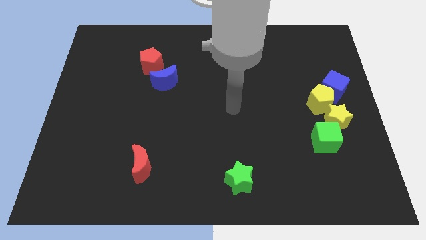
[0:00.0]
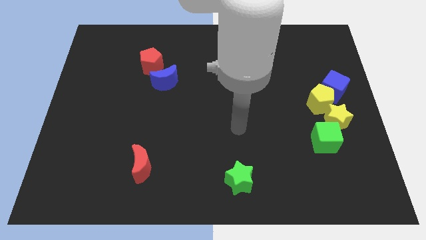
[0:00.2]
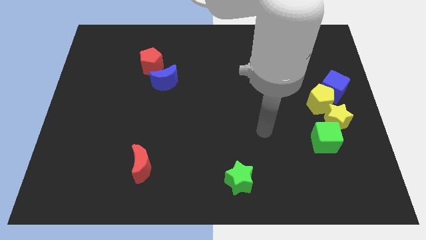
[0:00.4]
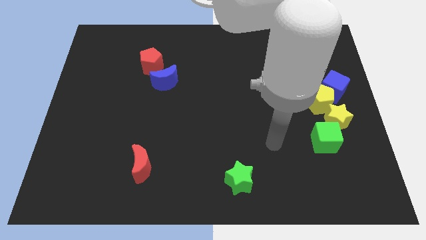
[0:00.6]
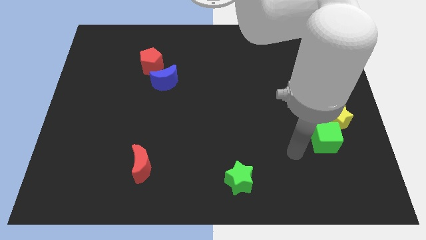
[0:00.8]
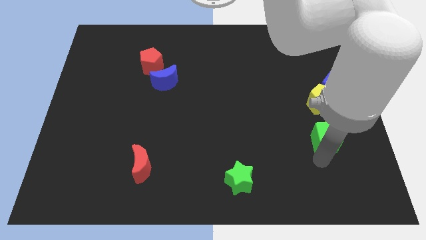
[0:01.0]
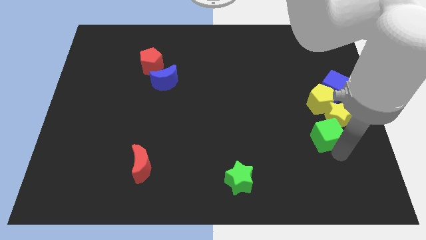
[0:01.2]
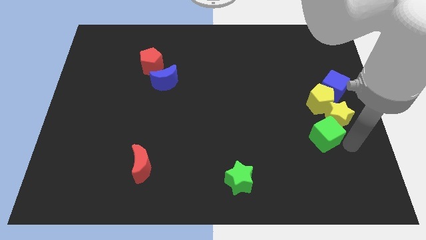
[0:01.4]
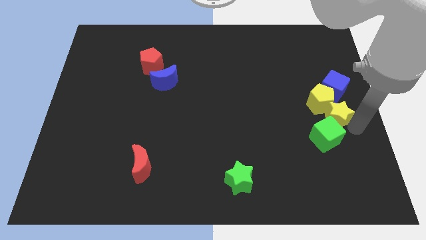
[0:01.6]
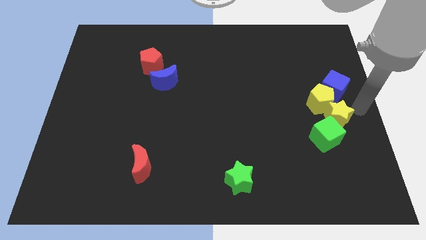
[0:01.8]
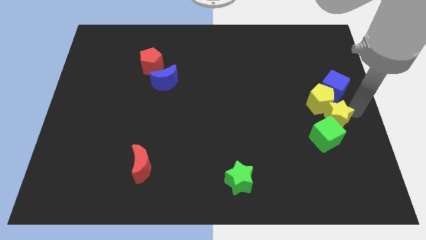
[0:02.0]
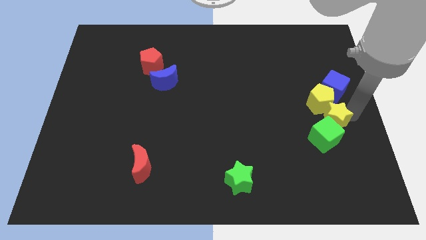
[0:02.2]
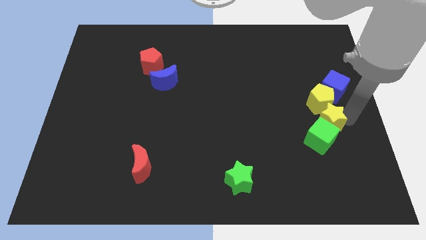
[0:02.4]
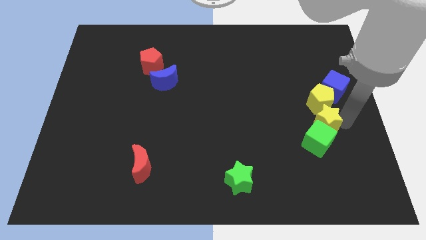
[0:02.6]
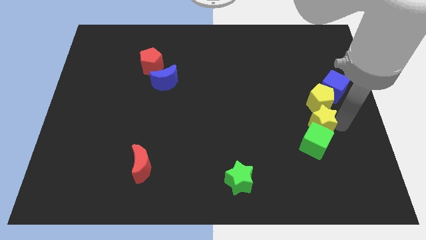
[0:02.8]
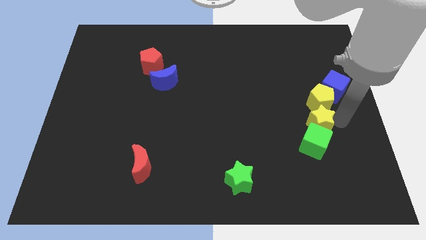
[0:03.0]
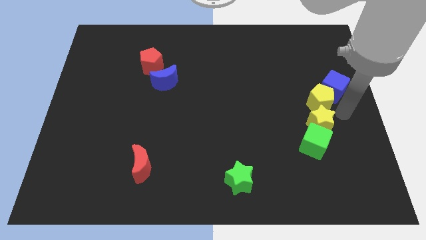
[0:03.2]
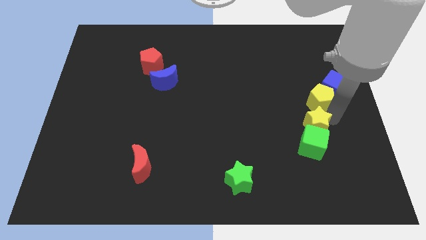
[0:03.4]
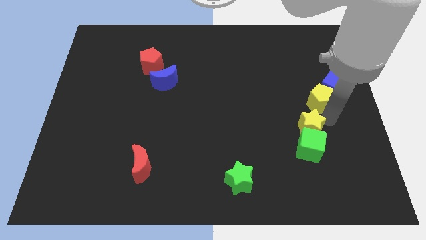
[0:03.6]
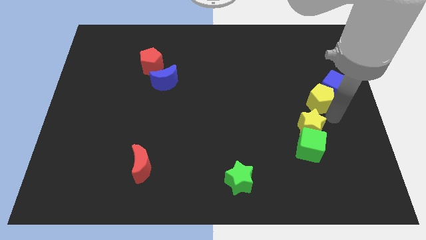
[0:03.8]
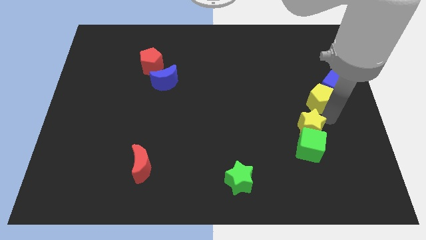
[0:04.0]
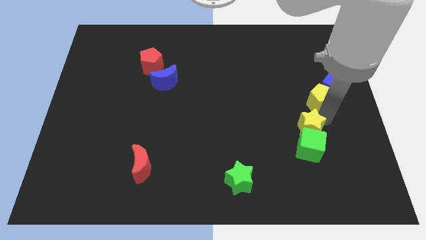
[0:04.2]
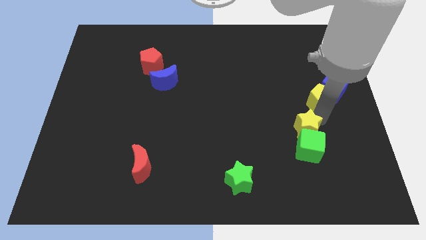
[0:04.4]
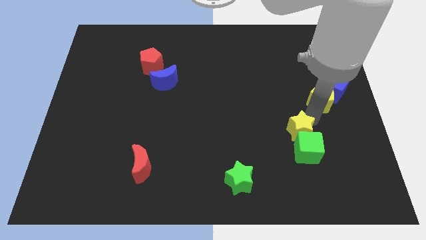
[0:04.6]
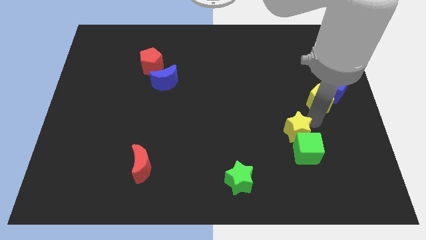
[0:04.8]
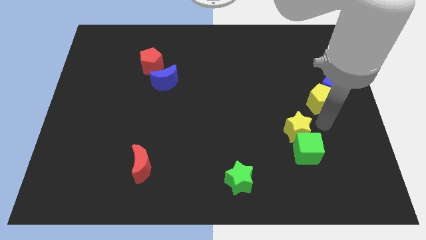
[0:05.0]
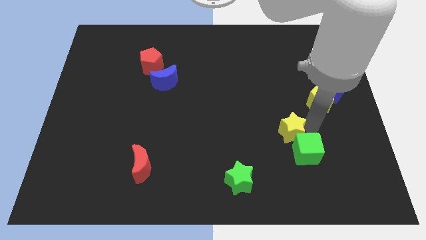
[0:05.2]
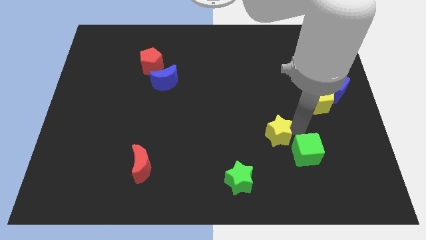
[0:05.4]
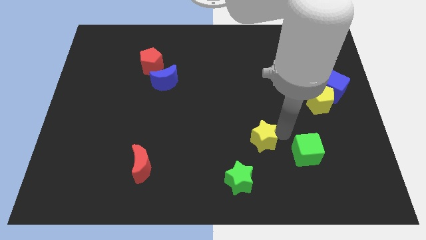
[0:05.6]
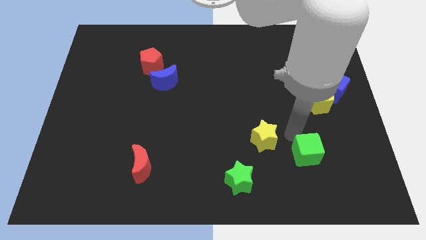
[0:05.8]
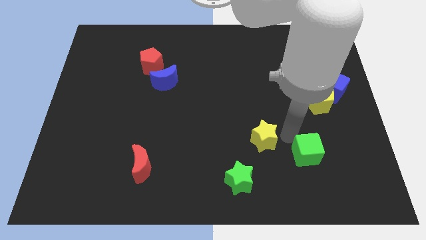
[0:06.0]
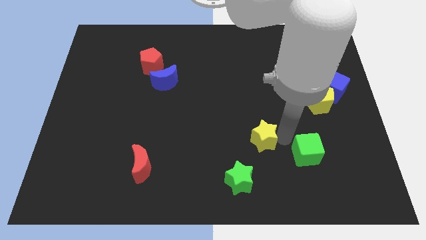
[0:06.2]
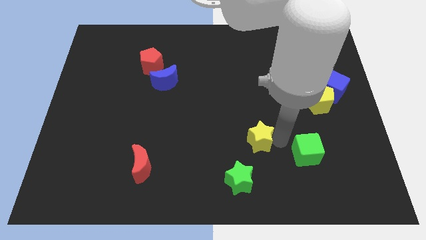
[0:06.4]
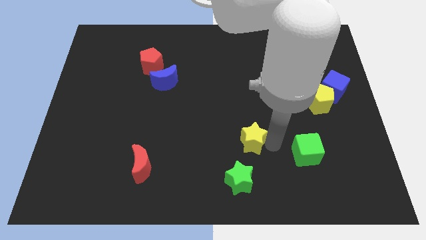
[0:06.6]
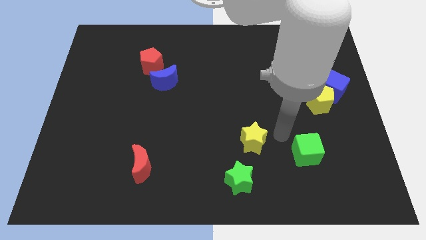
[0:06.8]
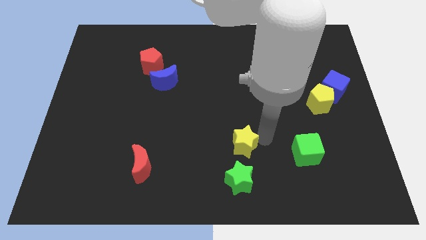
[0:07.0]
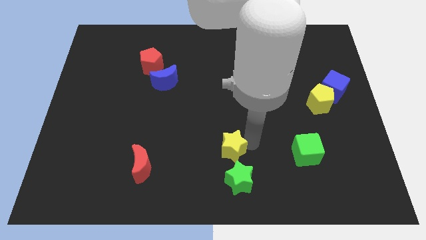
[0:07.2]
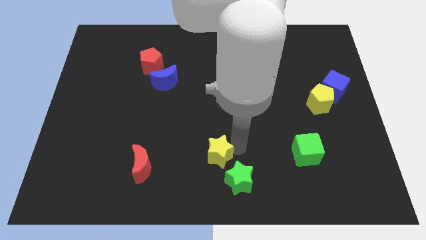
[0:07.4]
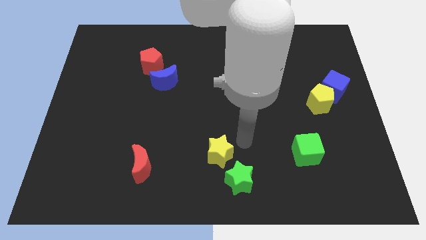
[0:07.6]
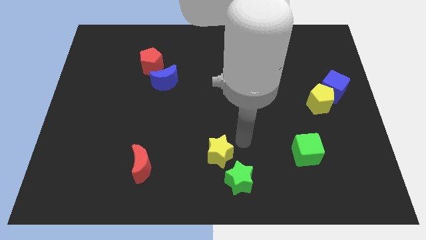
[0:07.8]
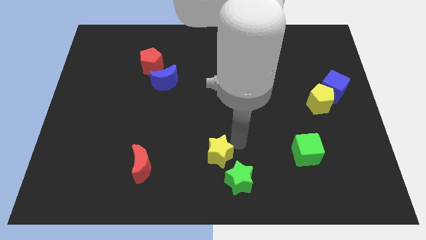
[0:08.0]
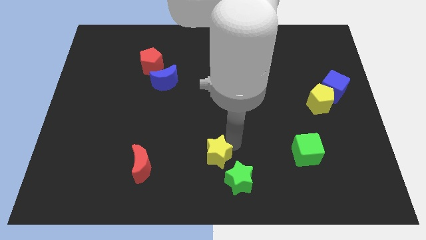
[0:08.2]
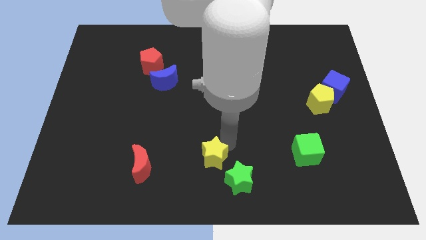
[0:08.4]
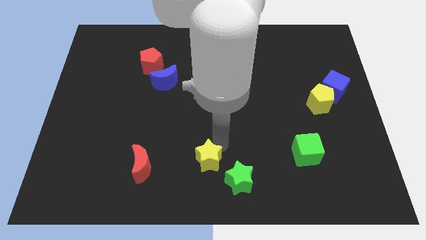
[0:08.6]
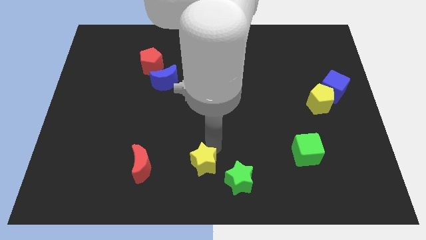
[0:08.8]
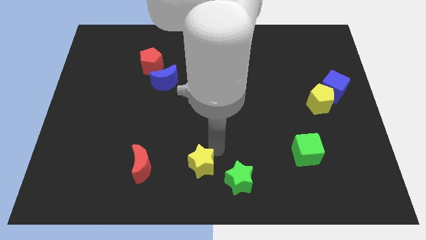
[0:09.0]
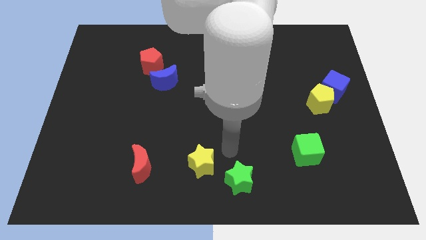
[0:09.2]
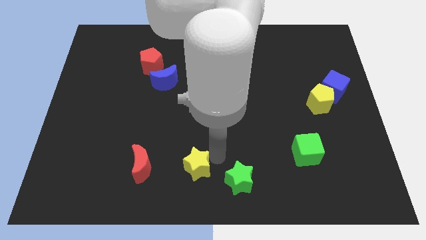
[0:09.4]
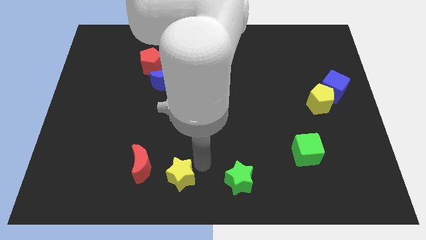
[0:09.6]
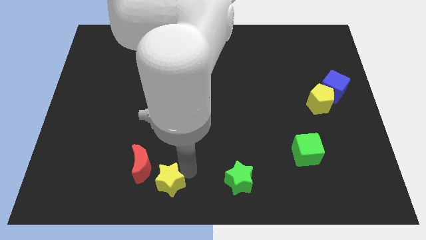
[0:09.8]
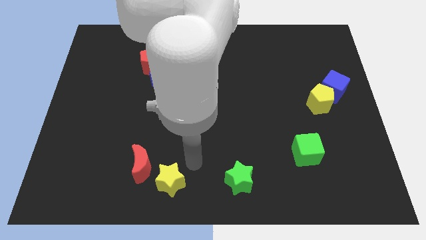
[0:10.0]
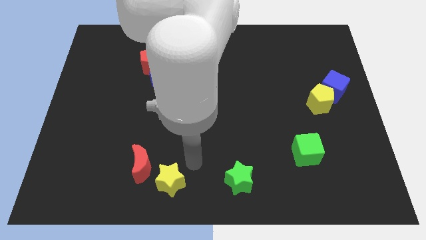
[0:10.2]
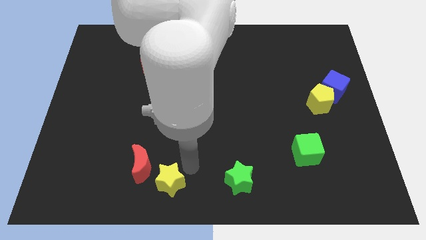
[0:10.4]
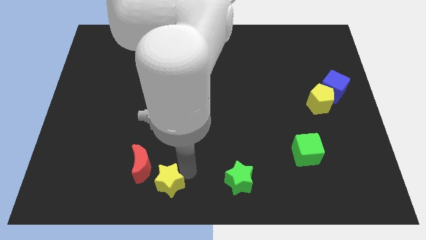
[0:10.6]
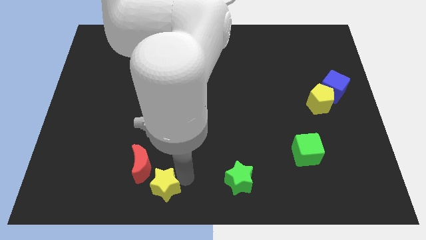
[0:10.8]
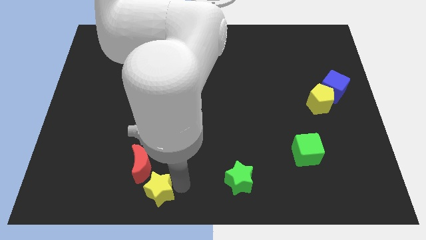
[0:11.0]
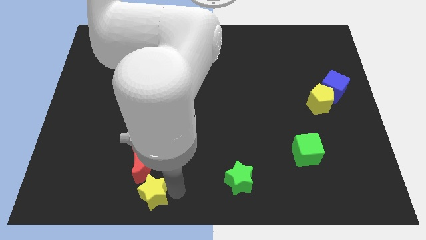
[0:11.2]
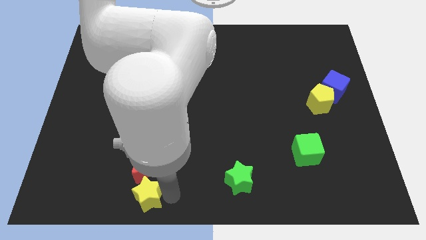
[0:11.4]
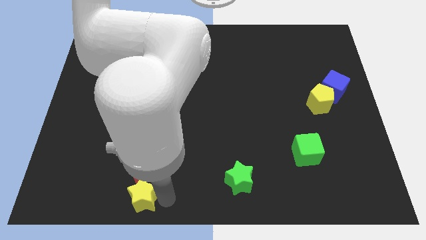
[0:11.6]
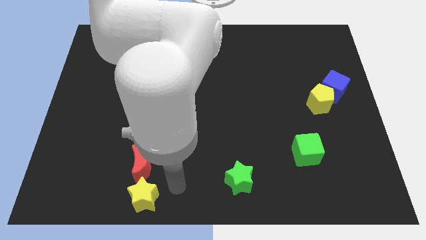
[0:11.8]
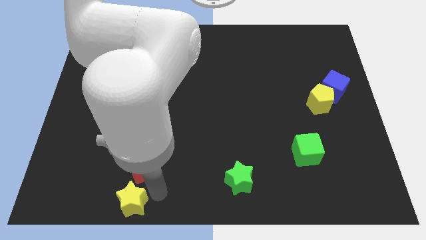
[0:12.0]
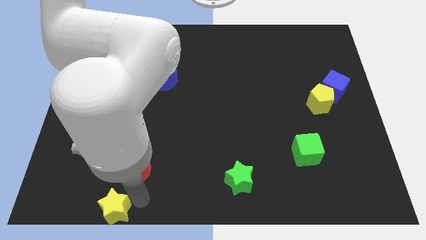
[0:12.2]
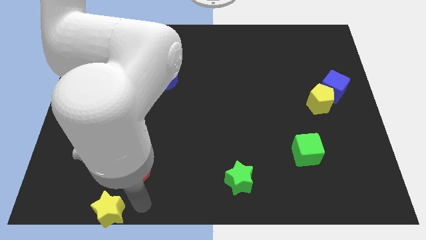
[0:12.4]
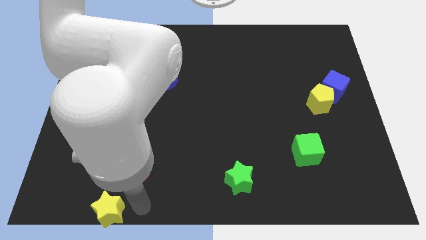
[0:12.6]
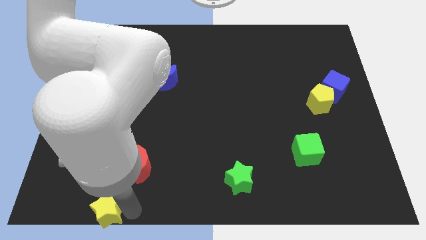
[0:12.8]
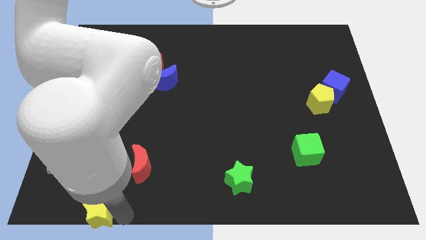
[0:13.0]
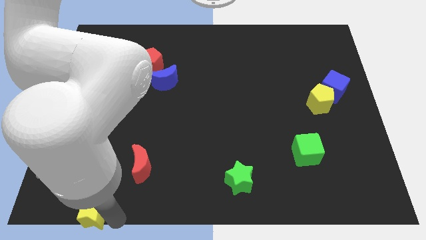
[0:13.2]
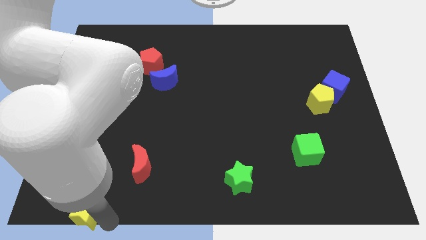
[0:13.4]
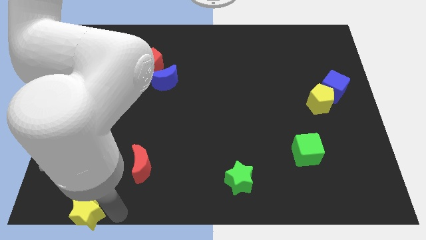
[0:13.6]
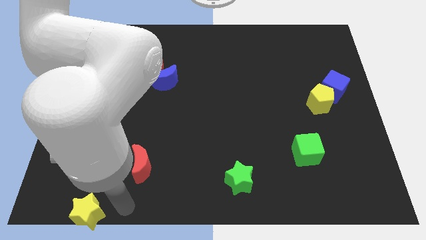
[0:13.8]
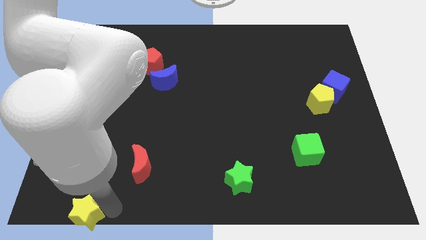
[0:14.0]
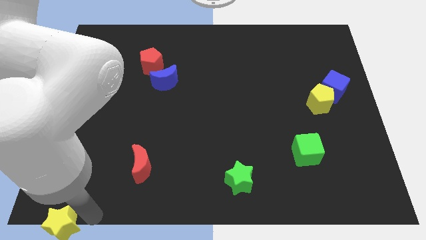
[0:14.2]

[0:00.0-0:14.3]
push the yellow star to the bottom left of the board
